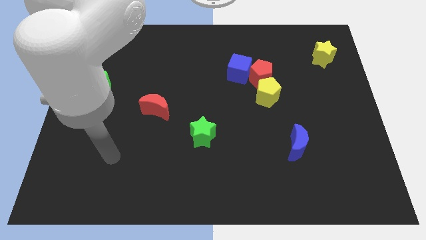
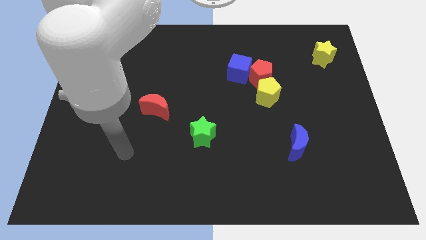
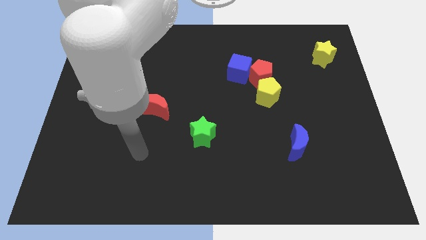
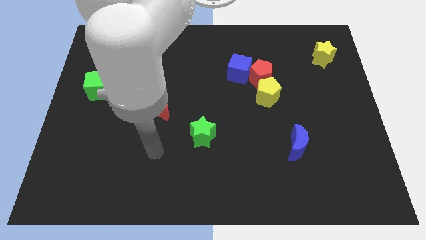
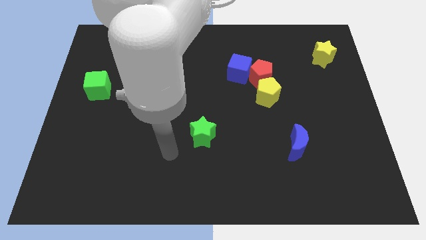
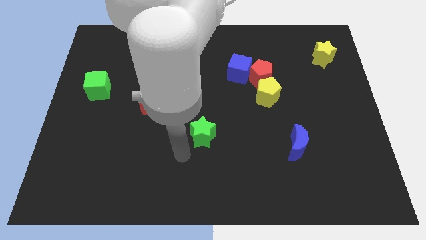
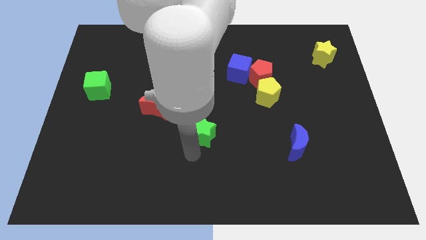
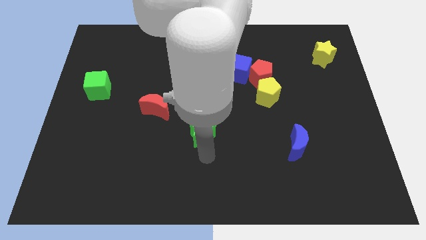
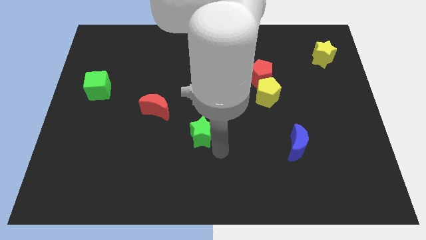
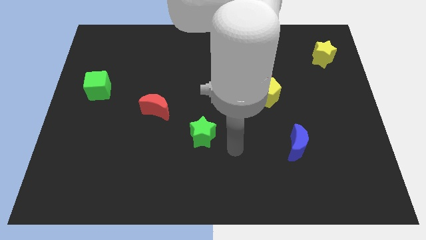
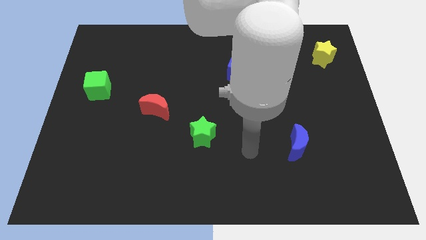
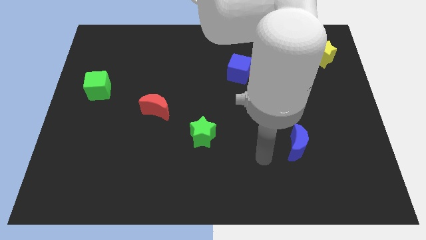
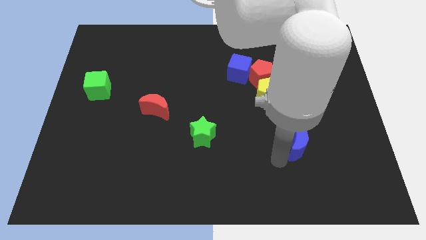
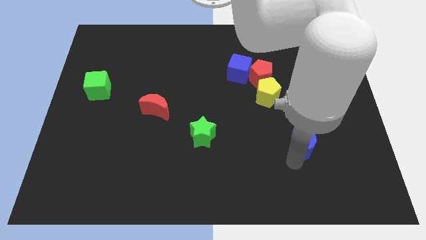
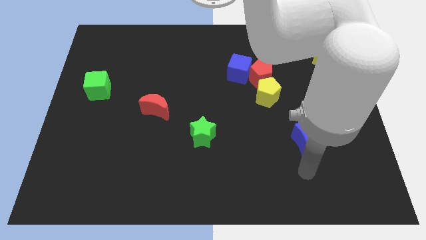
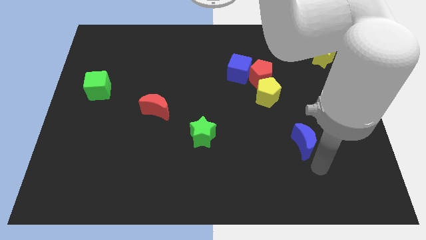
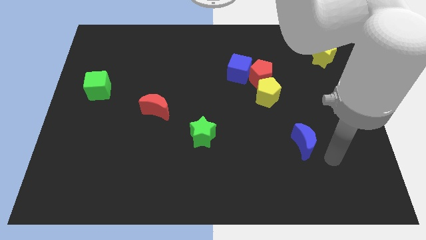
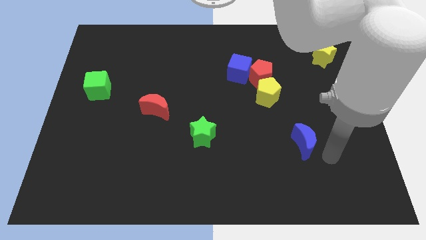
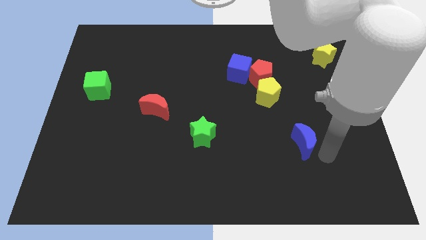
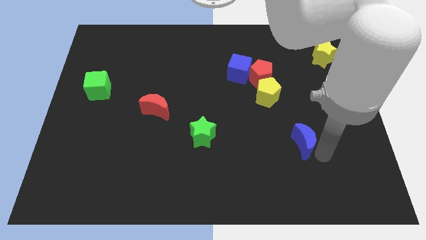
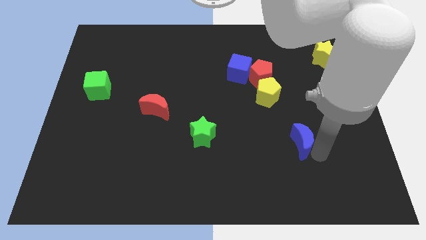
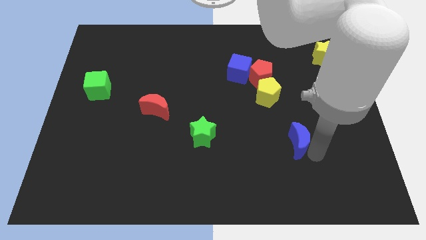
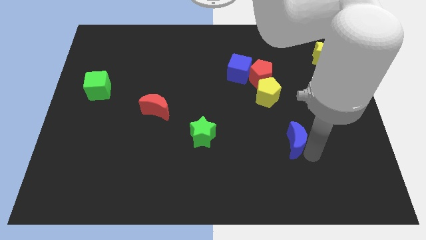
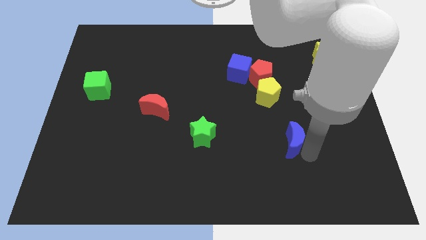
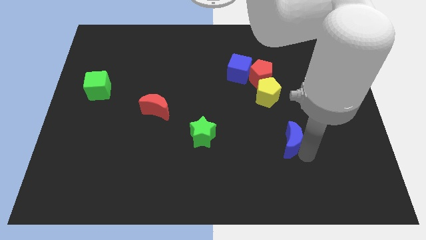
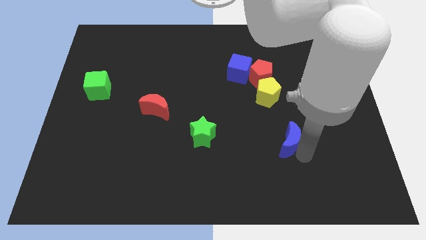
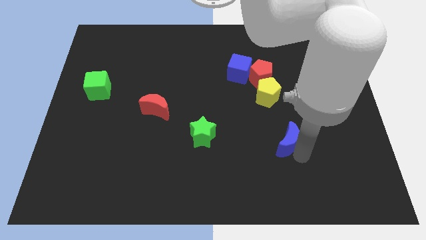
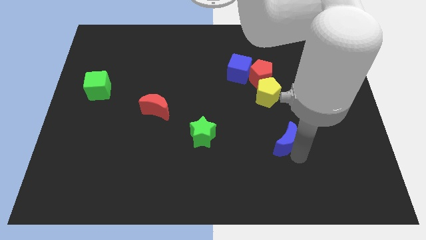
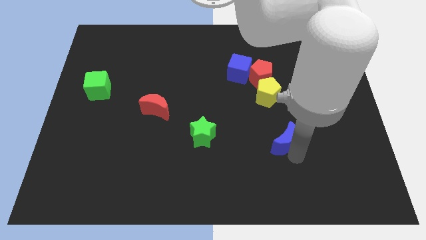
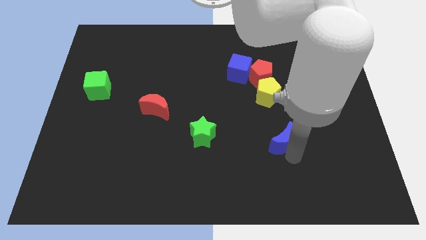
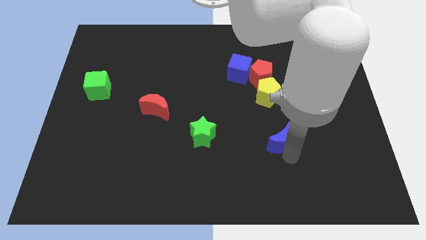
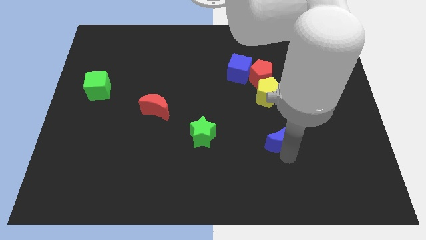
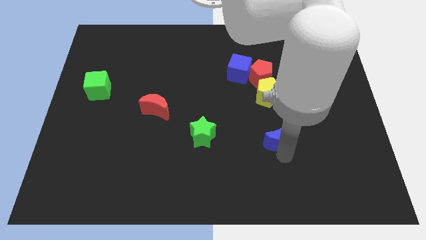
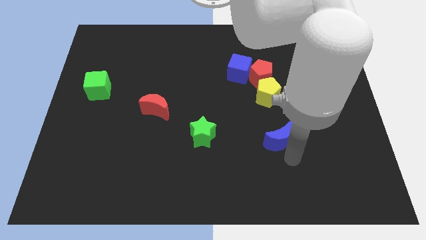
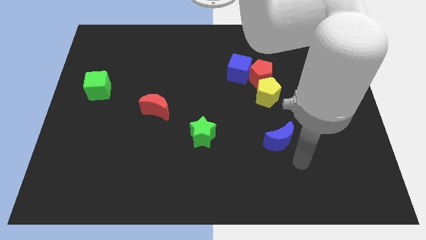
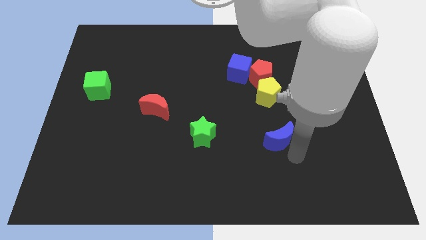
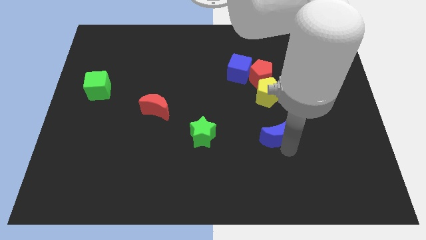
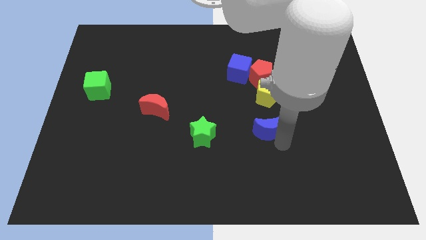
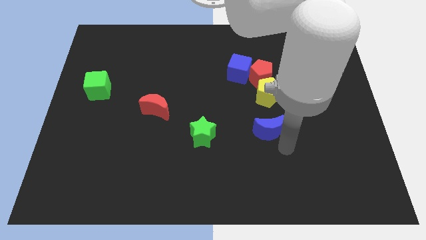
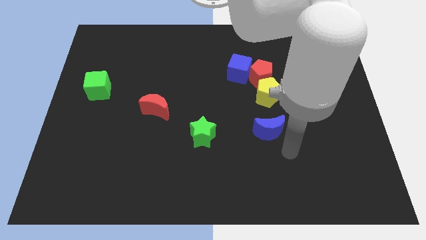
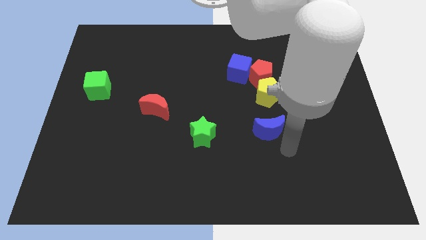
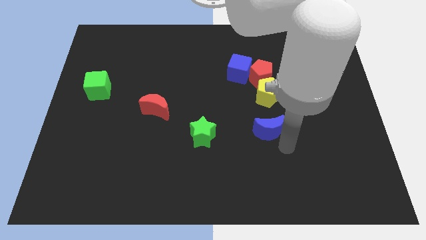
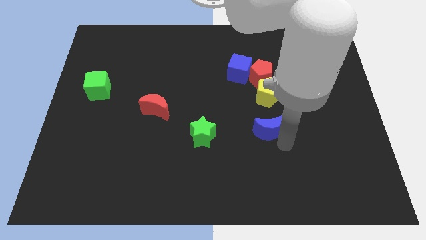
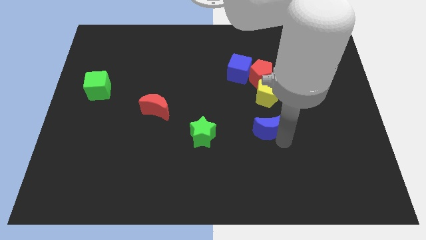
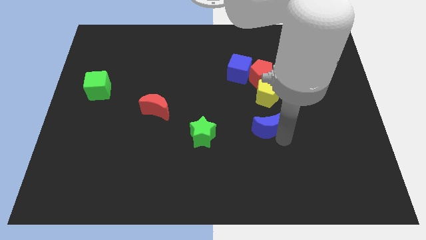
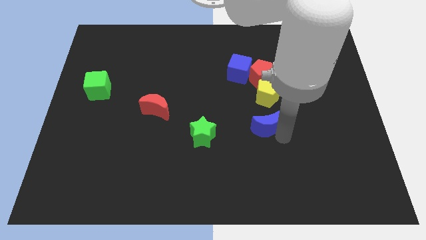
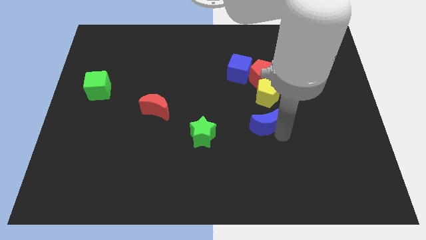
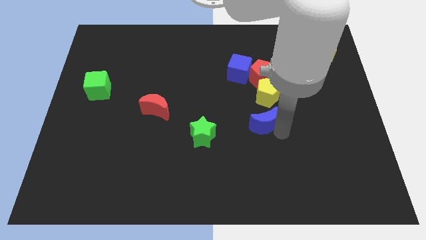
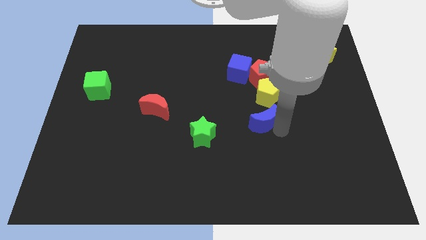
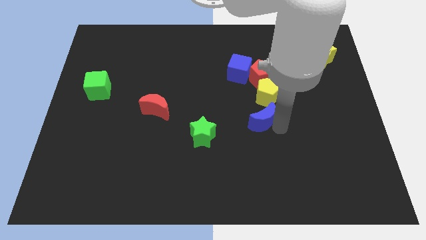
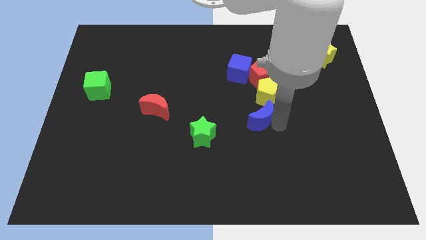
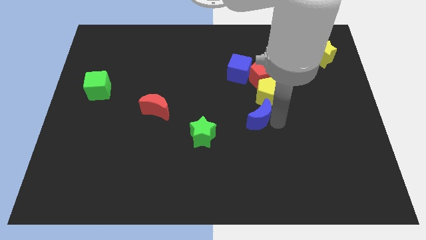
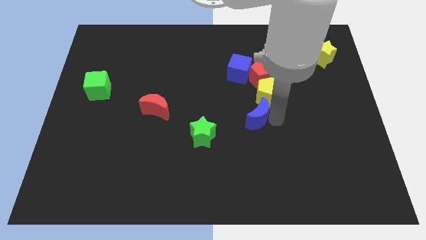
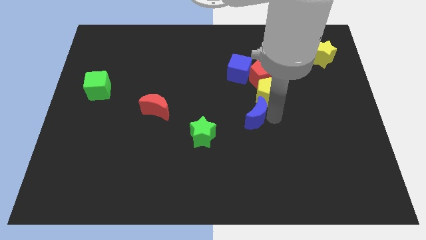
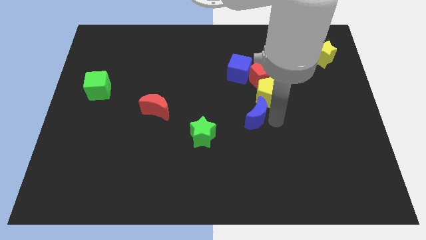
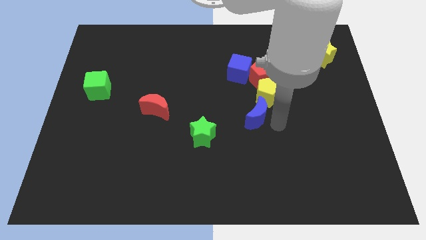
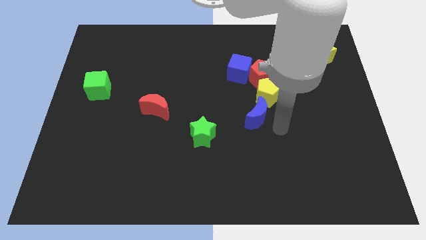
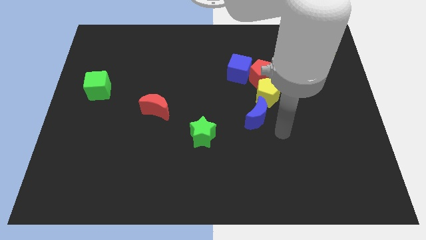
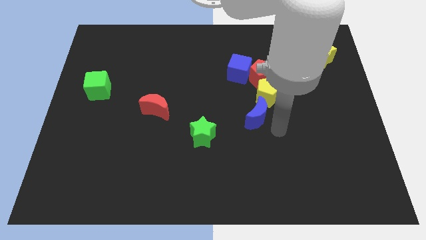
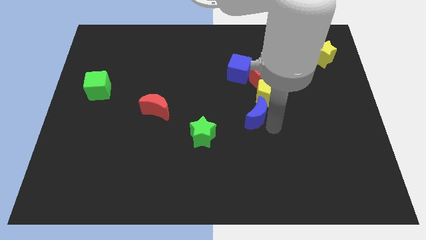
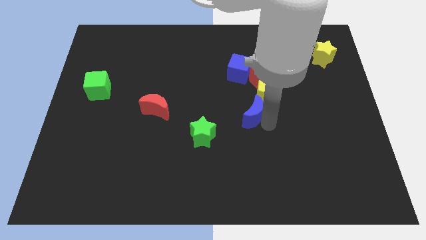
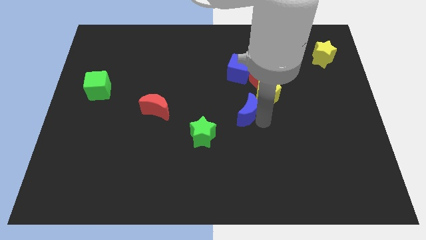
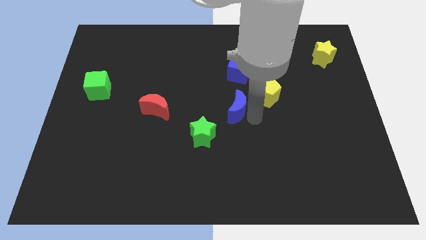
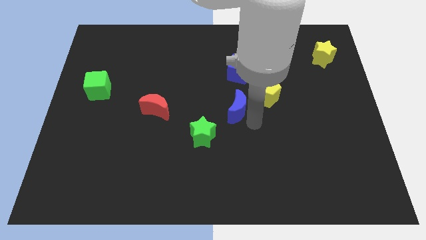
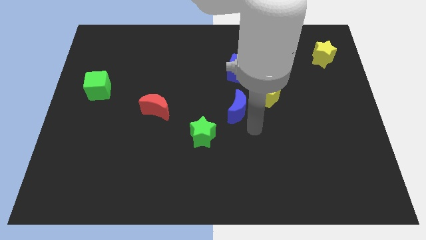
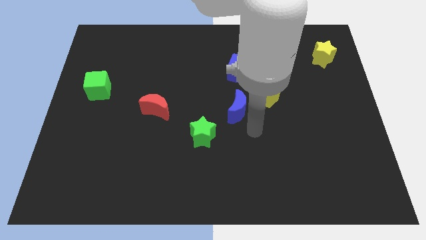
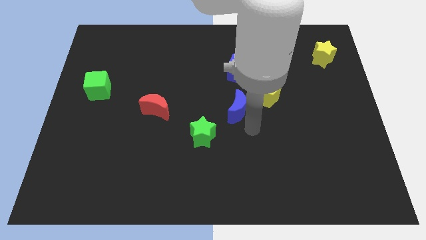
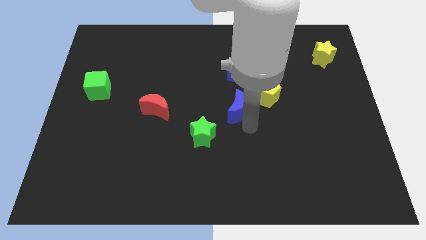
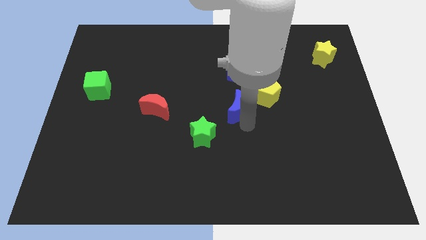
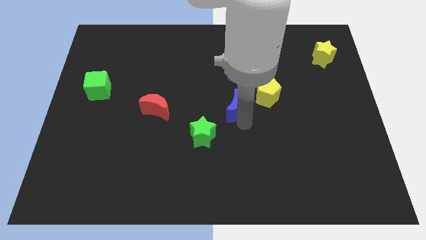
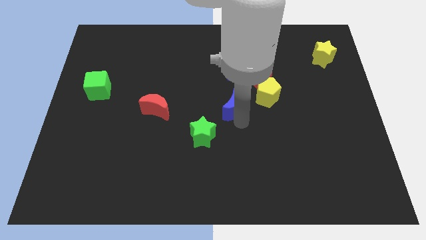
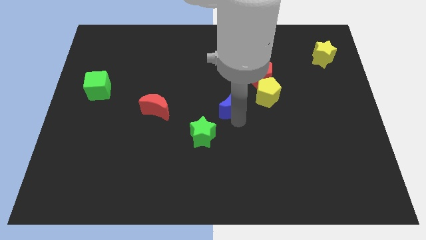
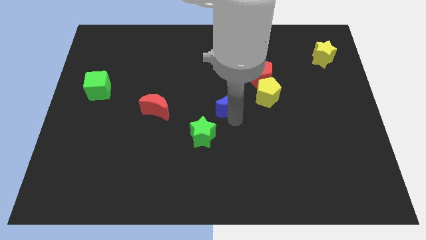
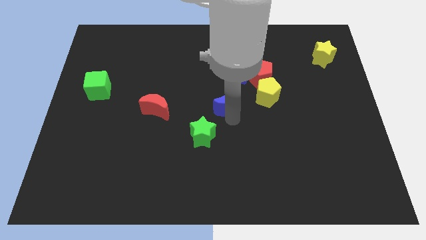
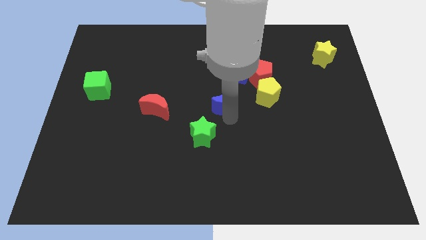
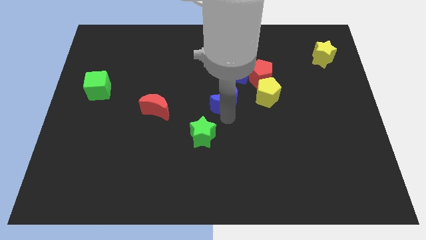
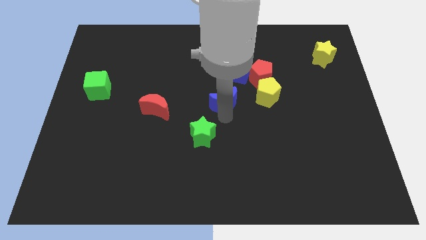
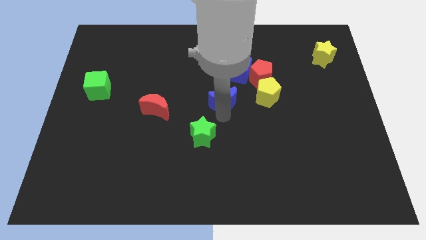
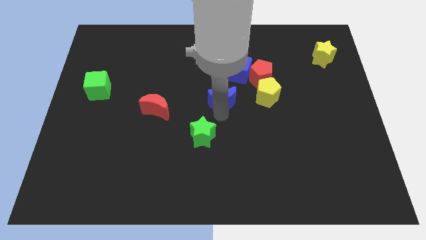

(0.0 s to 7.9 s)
slide the blue moon upwards and left

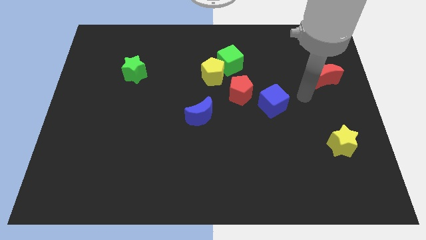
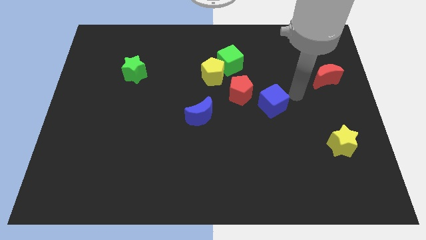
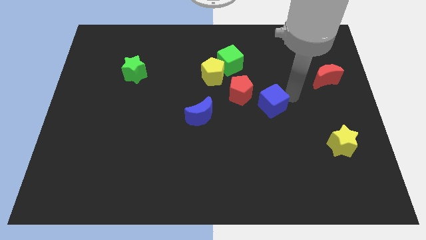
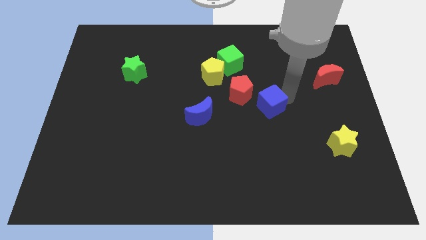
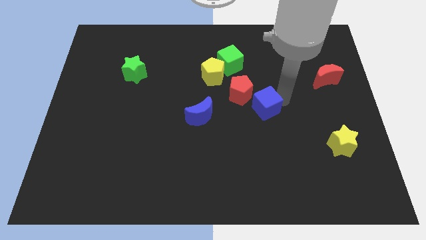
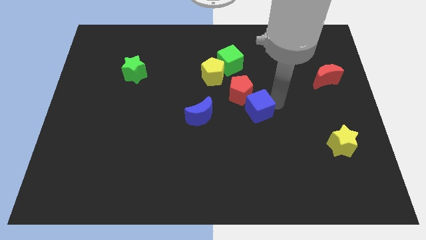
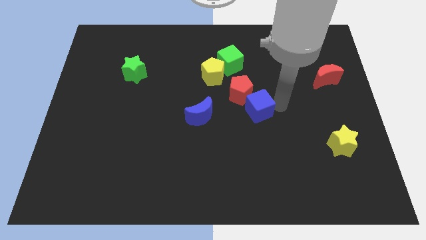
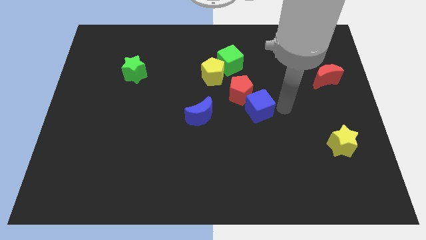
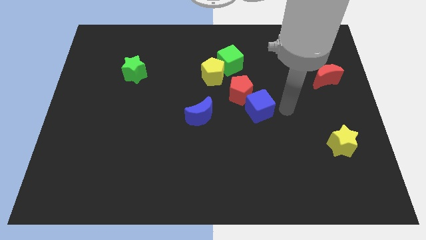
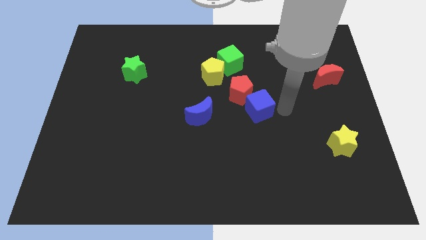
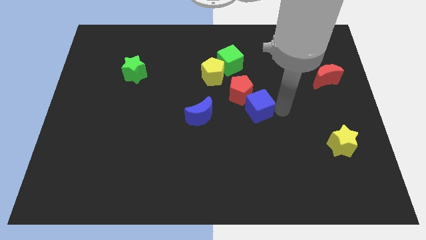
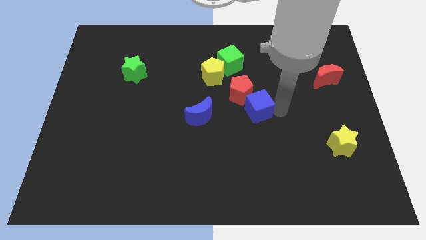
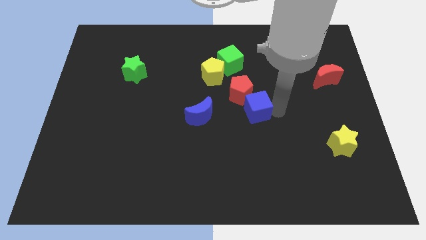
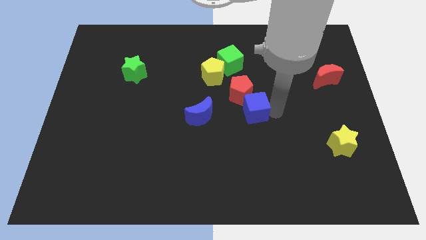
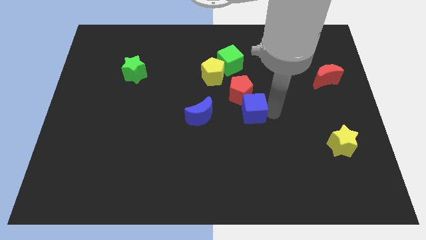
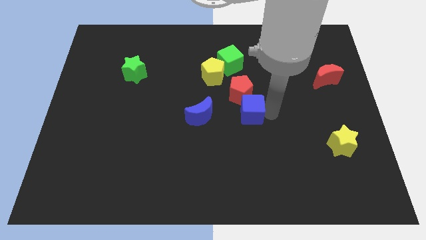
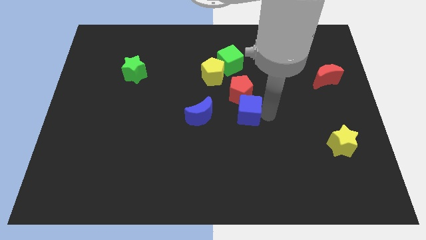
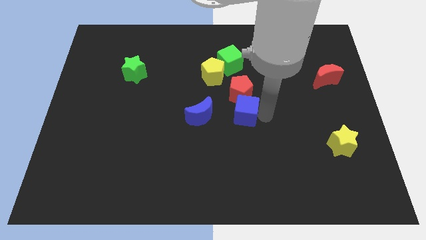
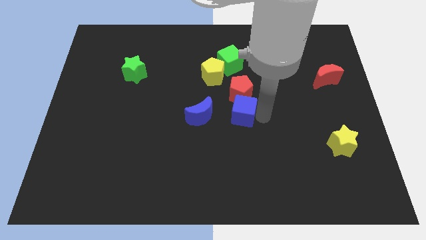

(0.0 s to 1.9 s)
move the blue cube to the left somewhat
